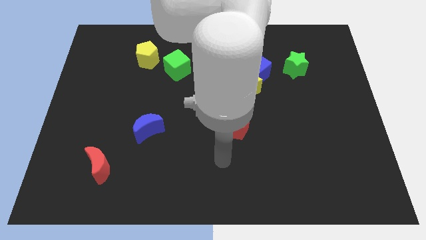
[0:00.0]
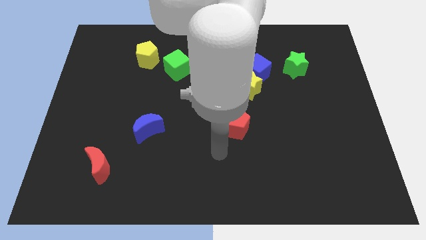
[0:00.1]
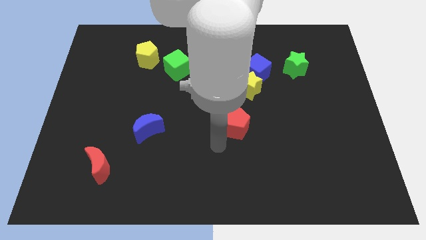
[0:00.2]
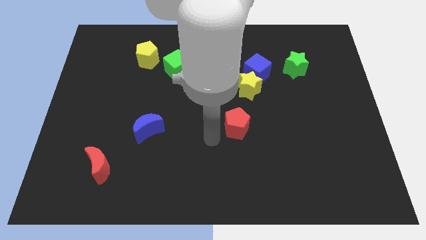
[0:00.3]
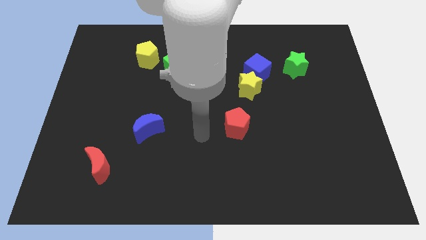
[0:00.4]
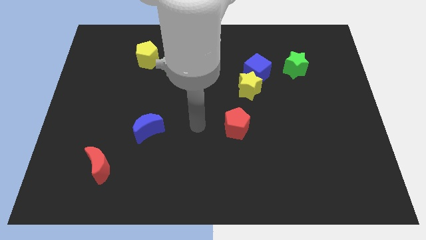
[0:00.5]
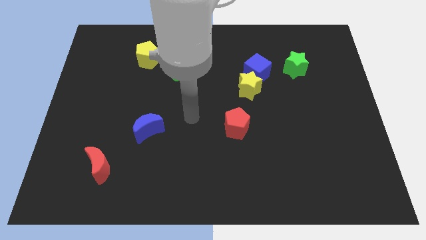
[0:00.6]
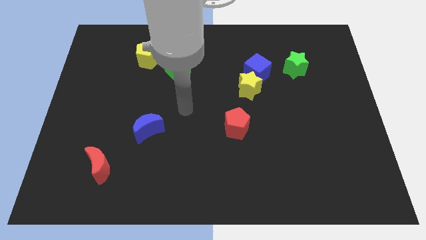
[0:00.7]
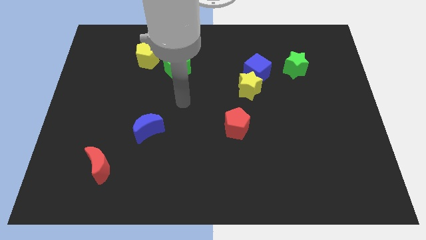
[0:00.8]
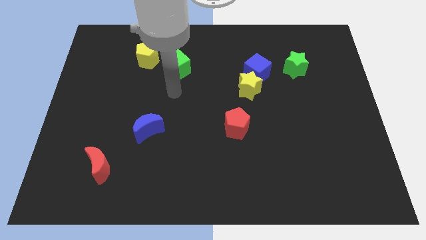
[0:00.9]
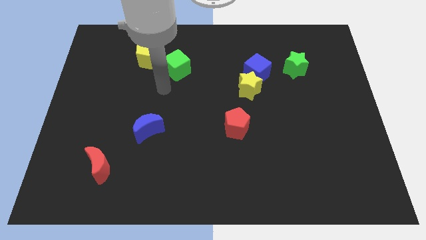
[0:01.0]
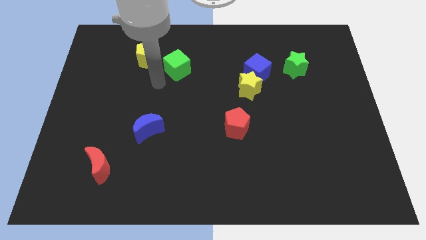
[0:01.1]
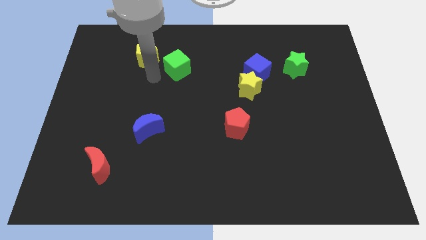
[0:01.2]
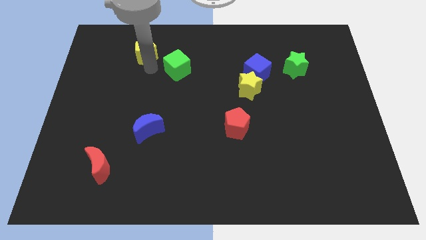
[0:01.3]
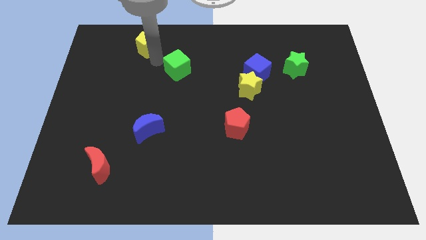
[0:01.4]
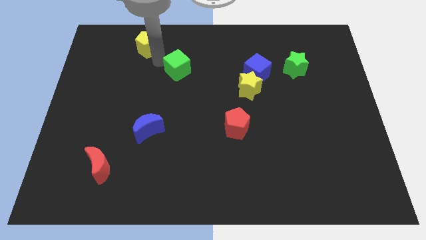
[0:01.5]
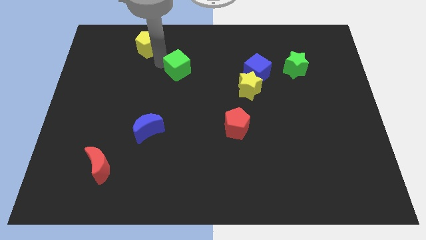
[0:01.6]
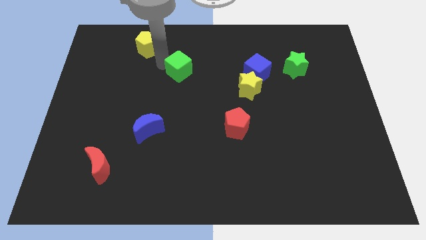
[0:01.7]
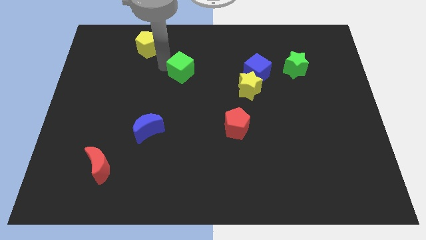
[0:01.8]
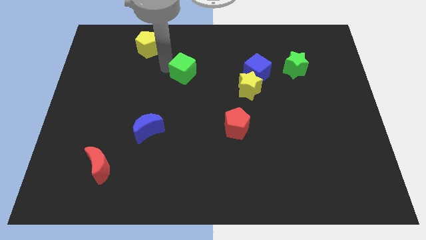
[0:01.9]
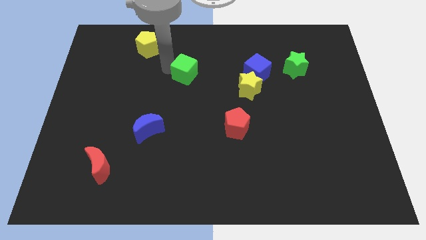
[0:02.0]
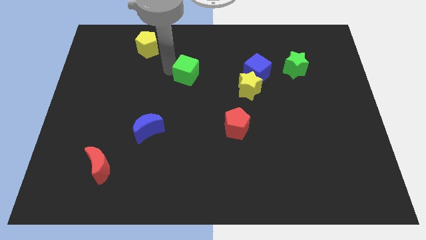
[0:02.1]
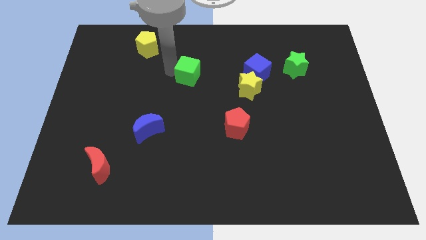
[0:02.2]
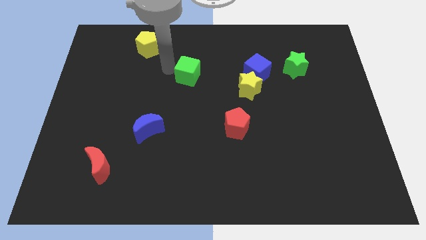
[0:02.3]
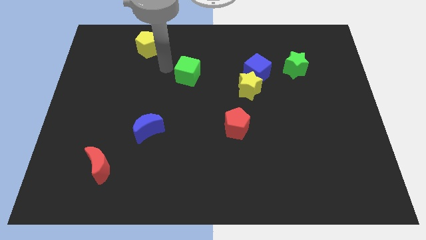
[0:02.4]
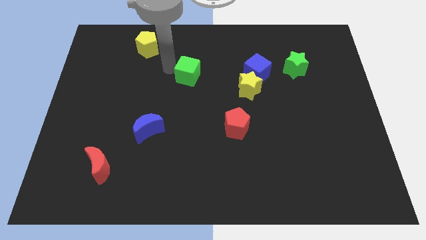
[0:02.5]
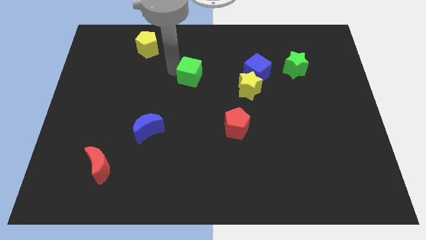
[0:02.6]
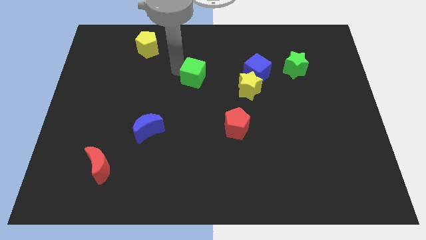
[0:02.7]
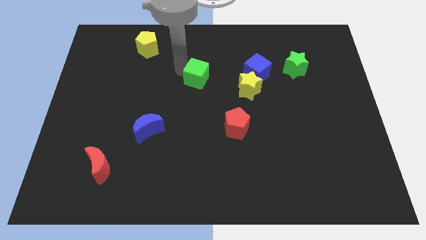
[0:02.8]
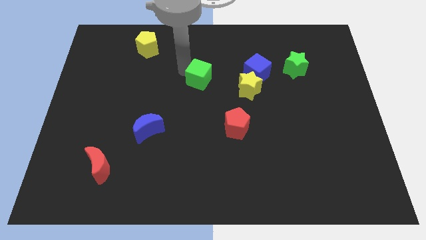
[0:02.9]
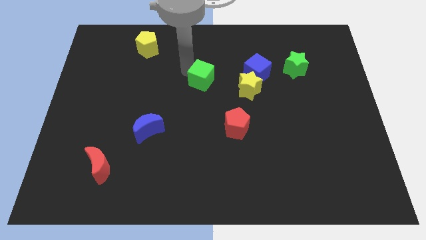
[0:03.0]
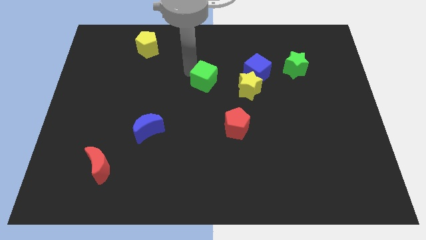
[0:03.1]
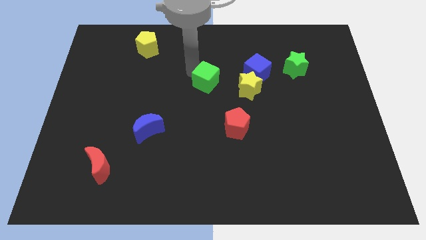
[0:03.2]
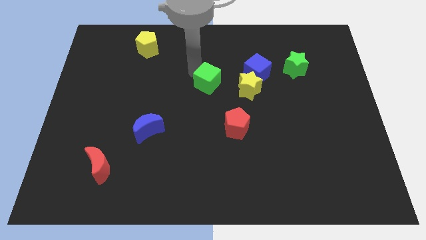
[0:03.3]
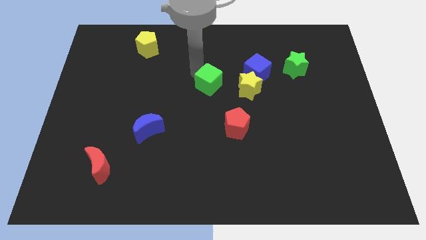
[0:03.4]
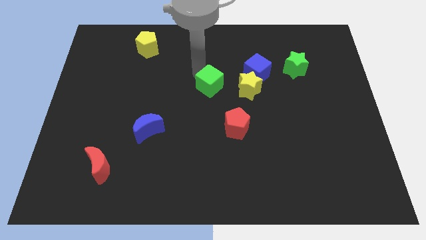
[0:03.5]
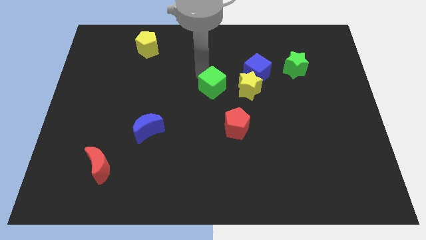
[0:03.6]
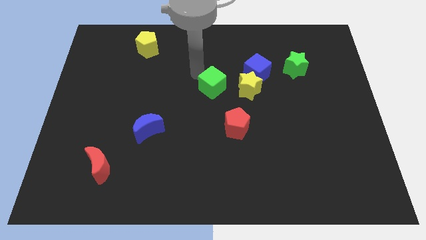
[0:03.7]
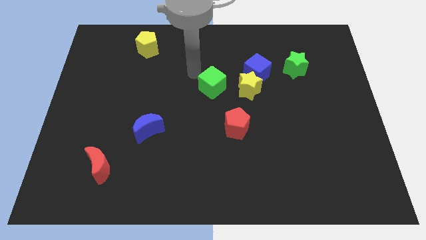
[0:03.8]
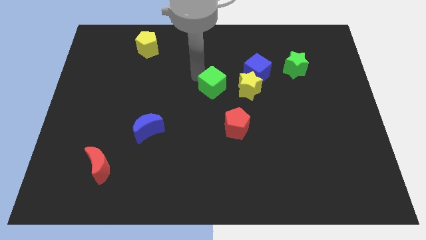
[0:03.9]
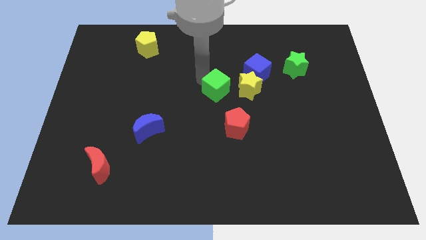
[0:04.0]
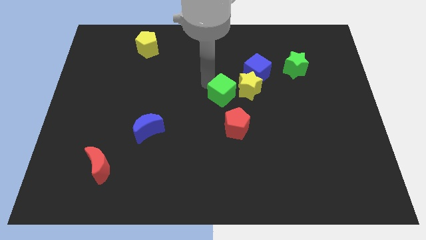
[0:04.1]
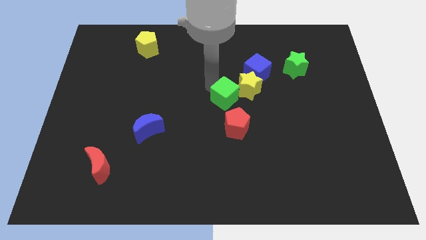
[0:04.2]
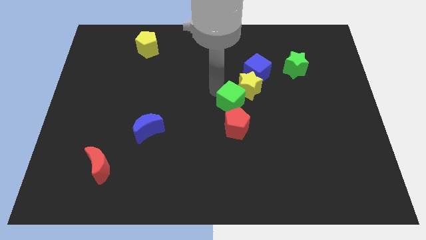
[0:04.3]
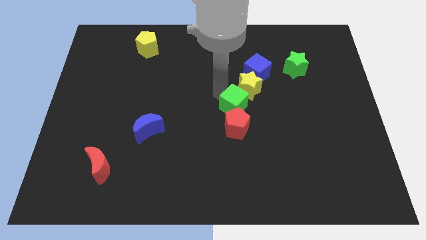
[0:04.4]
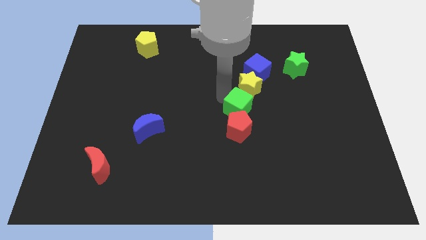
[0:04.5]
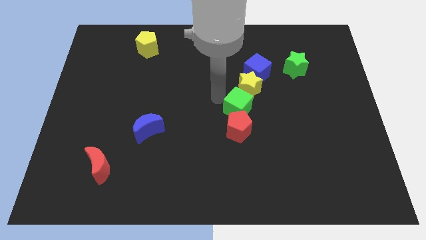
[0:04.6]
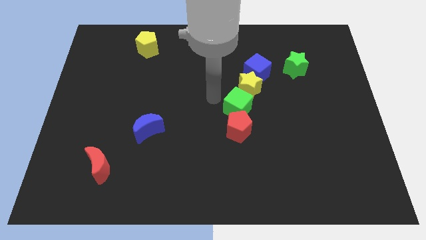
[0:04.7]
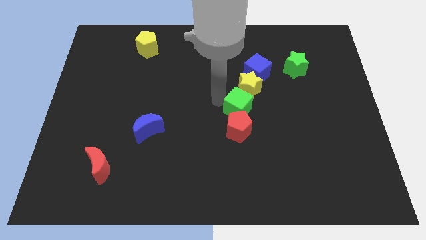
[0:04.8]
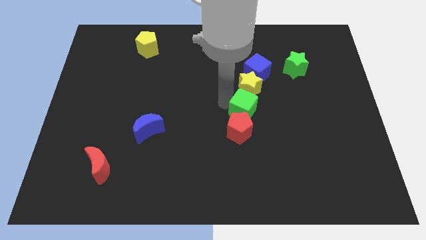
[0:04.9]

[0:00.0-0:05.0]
move the green cube down and to the right

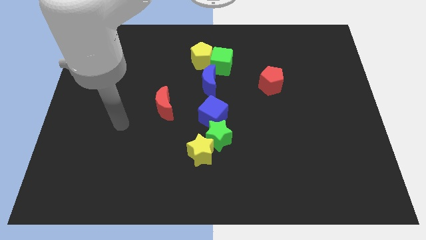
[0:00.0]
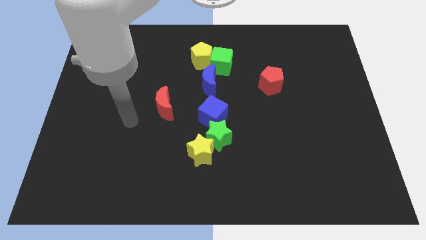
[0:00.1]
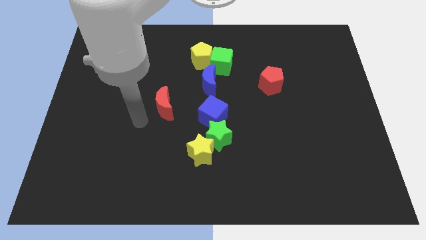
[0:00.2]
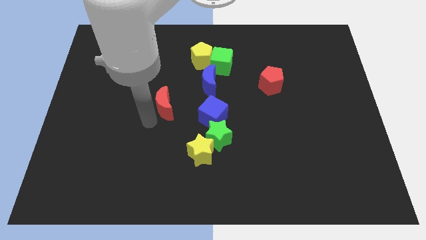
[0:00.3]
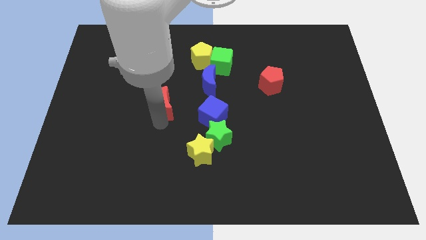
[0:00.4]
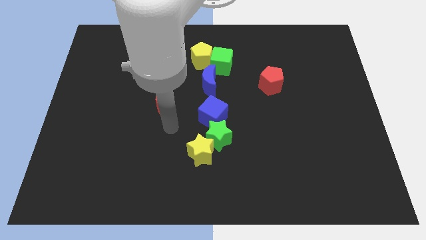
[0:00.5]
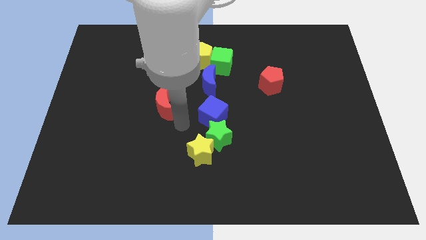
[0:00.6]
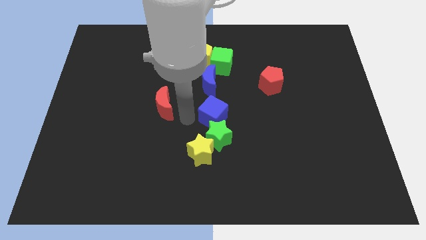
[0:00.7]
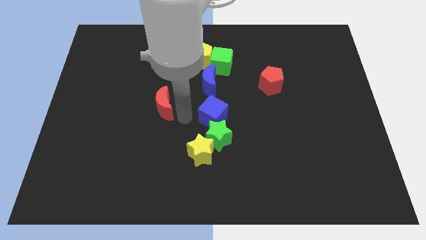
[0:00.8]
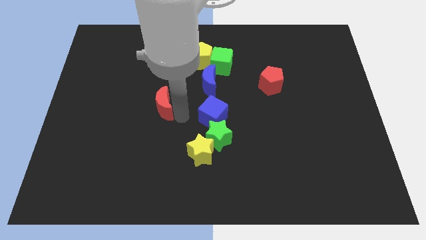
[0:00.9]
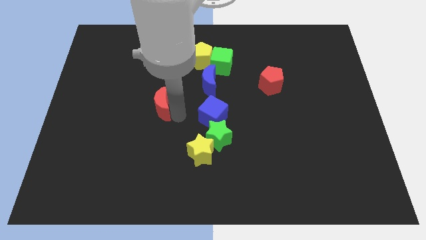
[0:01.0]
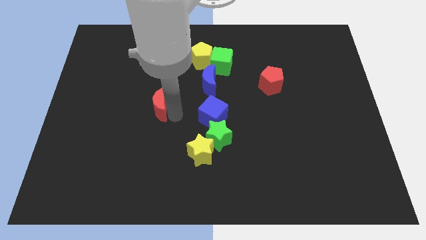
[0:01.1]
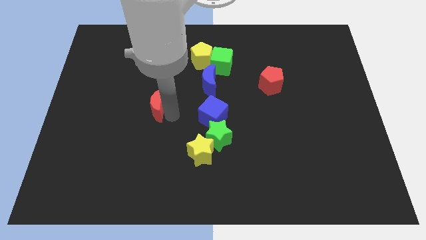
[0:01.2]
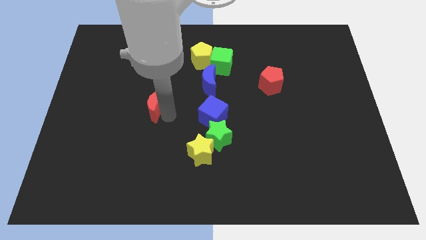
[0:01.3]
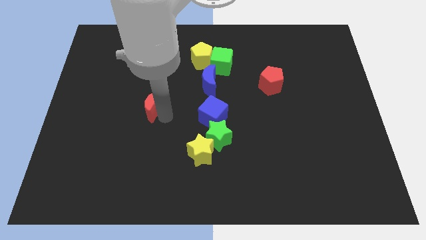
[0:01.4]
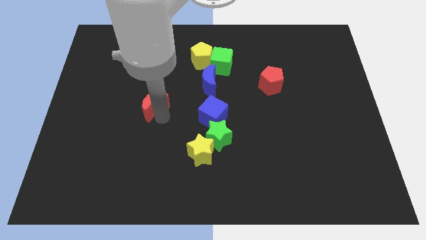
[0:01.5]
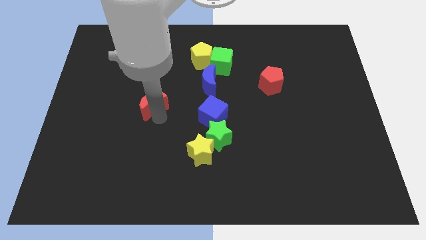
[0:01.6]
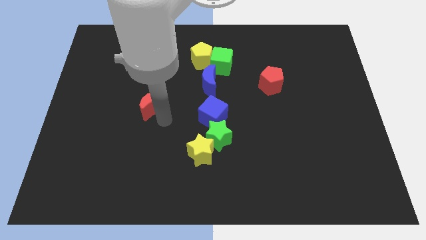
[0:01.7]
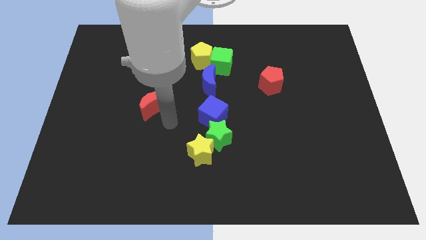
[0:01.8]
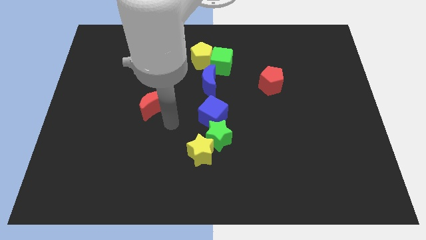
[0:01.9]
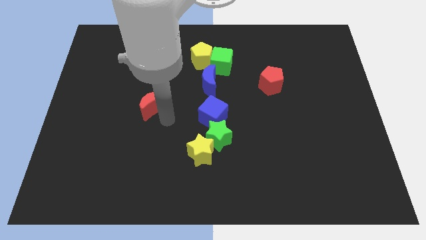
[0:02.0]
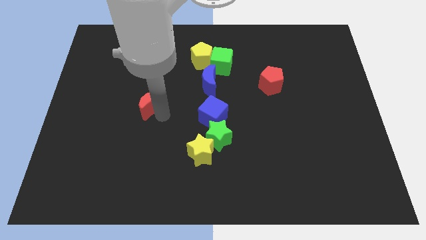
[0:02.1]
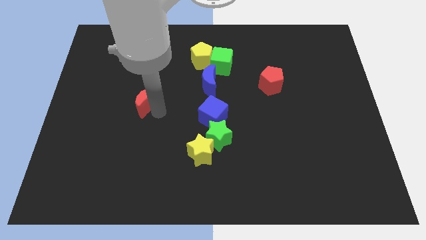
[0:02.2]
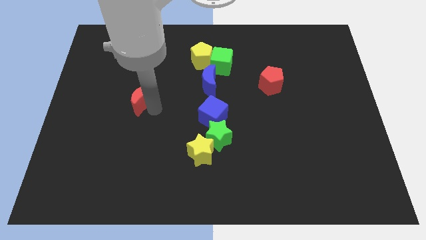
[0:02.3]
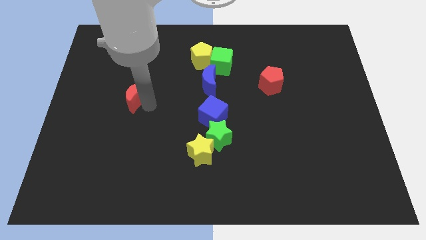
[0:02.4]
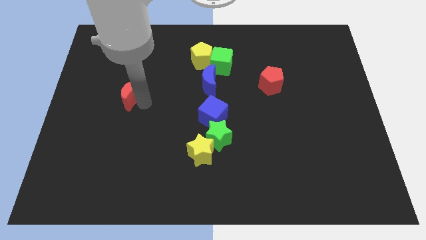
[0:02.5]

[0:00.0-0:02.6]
slightly move the red moon upwards and left

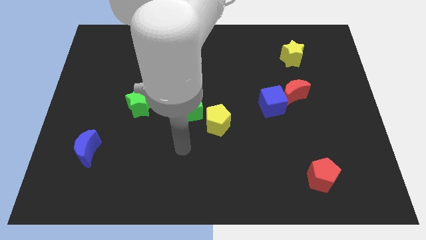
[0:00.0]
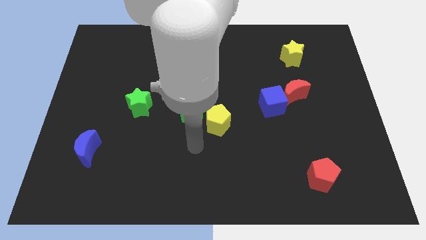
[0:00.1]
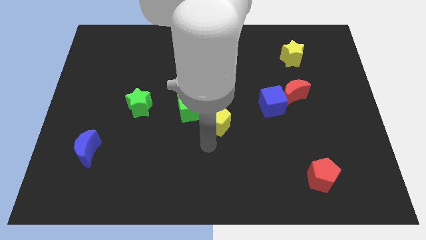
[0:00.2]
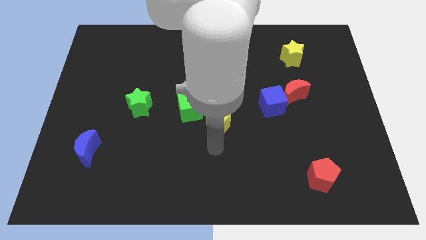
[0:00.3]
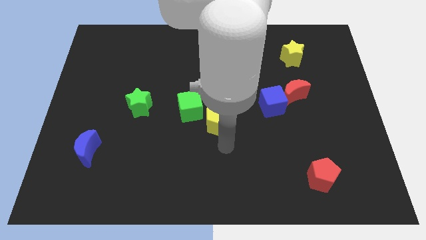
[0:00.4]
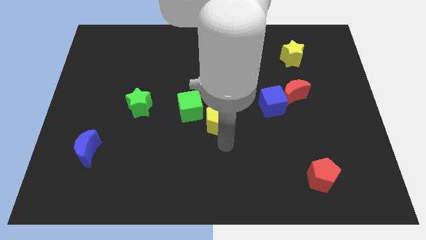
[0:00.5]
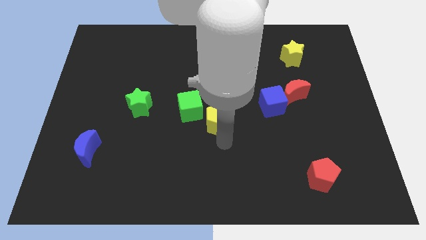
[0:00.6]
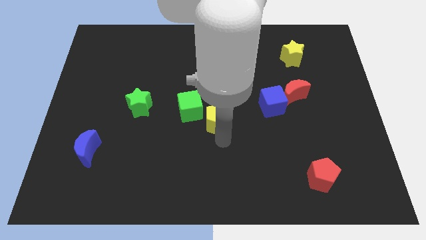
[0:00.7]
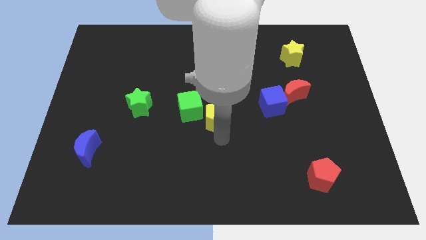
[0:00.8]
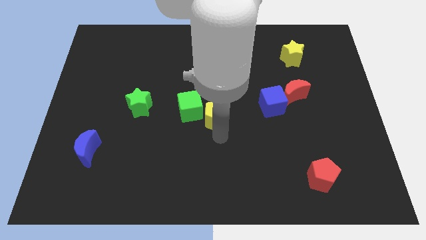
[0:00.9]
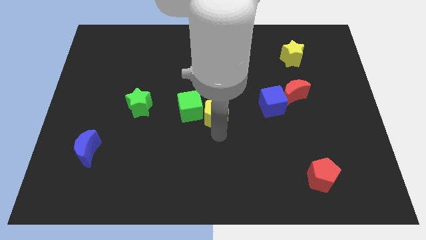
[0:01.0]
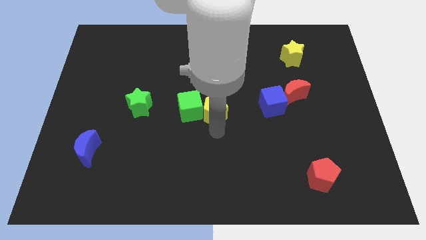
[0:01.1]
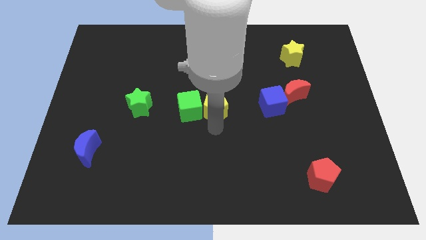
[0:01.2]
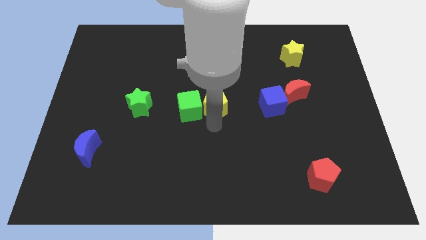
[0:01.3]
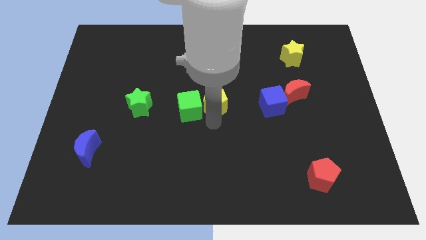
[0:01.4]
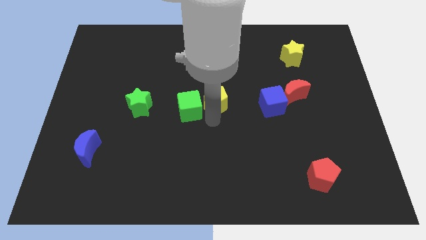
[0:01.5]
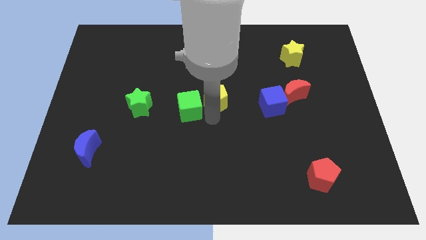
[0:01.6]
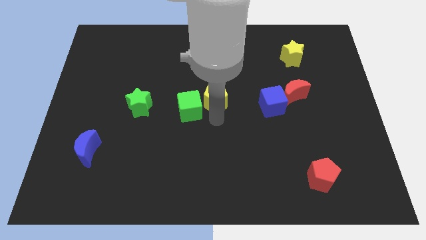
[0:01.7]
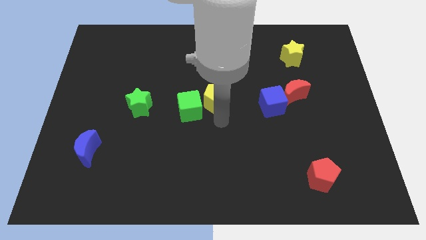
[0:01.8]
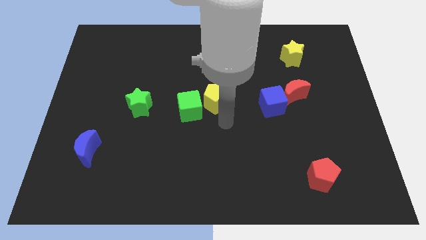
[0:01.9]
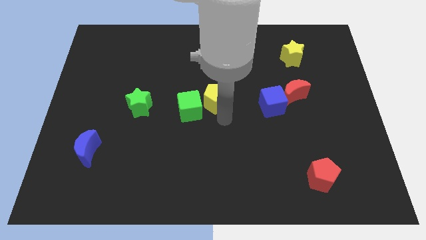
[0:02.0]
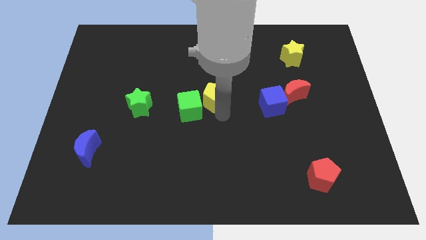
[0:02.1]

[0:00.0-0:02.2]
push the yellow pentagon up a little bit
